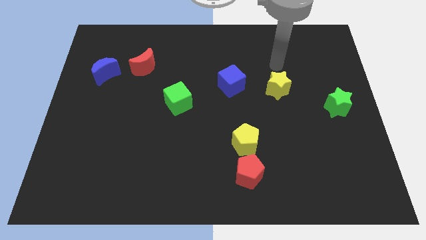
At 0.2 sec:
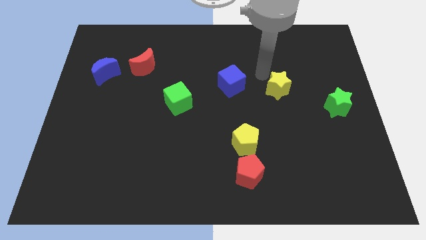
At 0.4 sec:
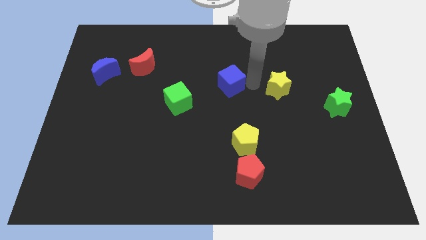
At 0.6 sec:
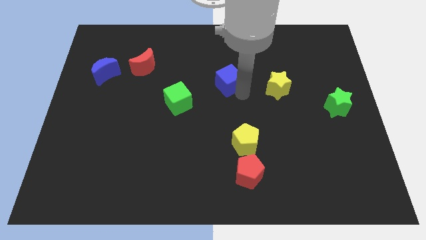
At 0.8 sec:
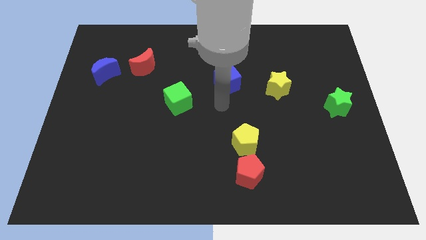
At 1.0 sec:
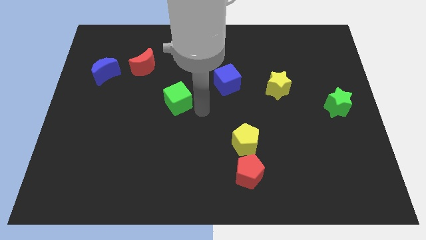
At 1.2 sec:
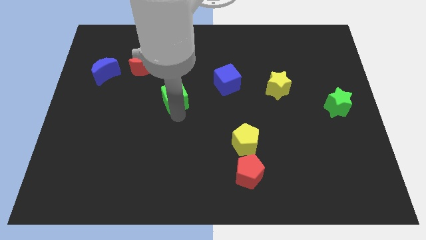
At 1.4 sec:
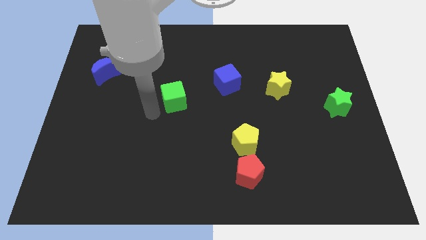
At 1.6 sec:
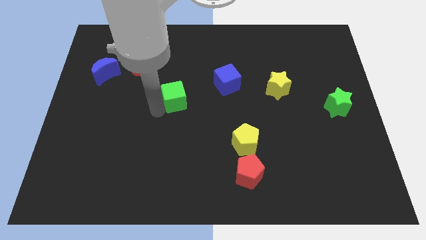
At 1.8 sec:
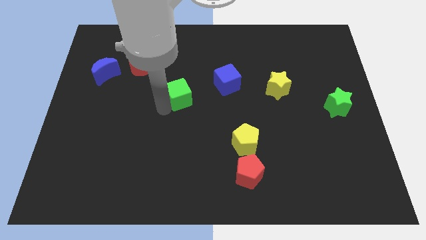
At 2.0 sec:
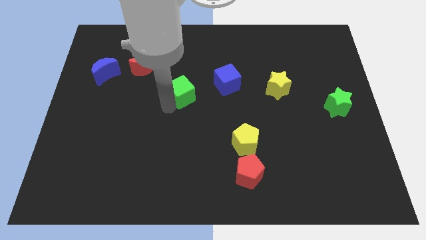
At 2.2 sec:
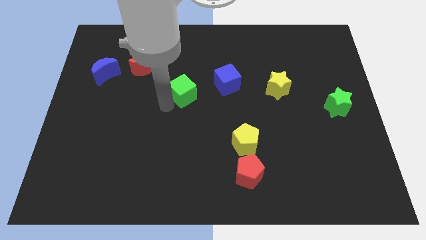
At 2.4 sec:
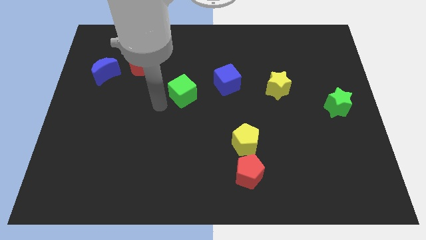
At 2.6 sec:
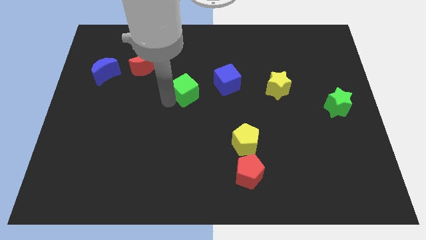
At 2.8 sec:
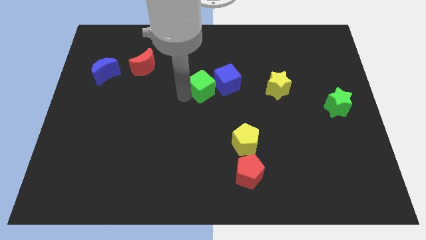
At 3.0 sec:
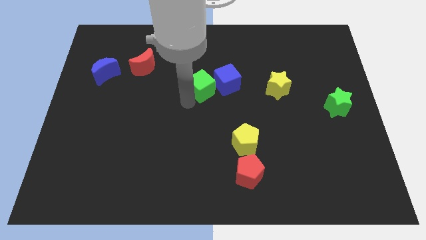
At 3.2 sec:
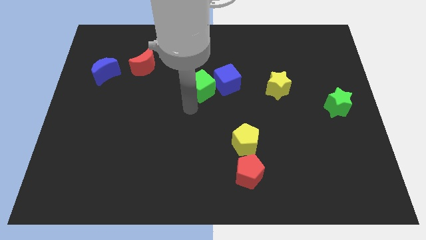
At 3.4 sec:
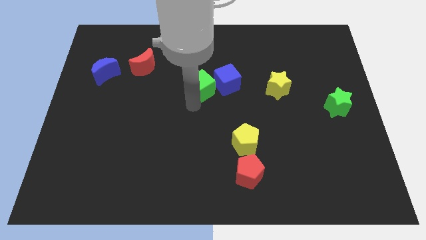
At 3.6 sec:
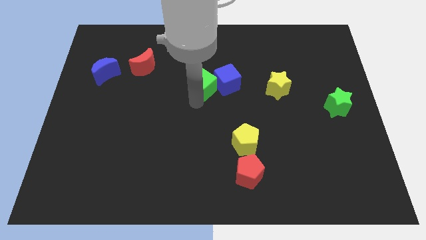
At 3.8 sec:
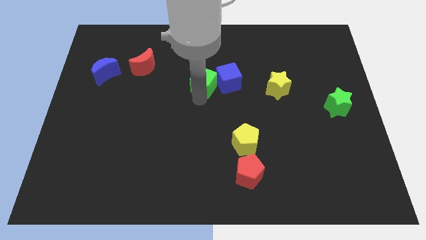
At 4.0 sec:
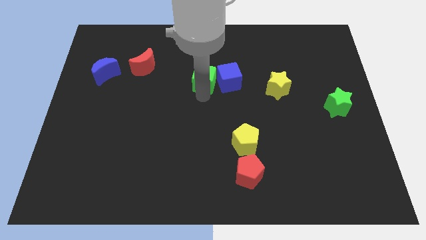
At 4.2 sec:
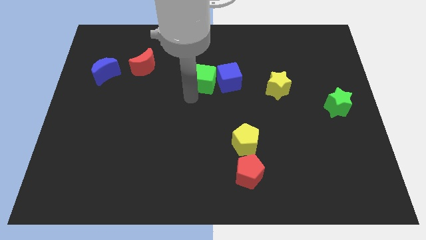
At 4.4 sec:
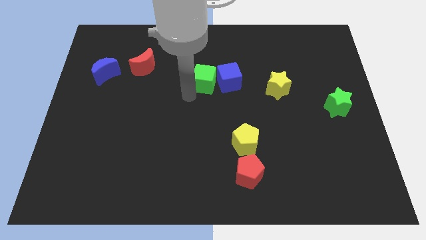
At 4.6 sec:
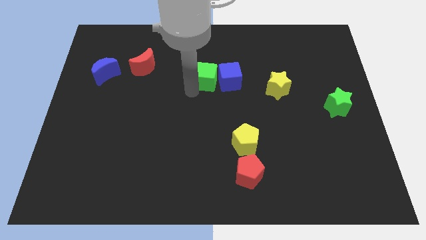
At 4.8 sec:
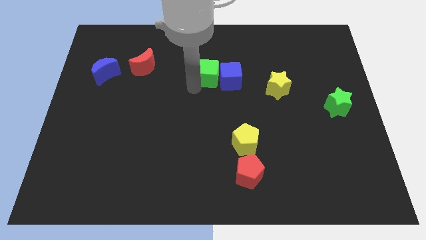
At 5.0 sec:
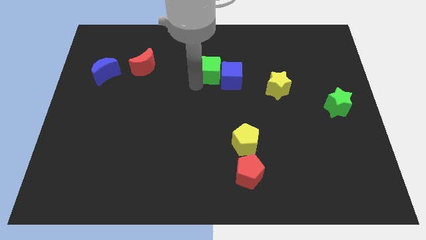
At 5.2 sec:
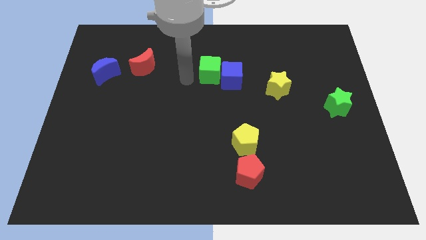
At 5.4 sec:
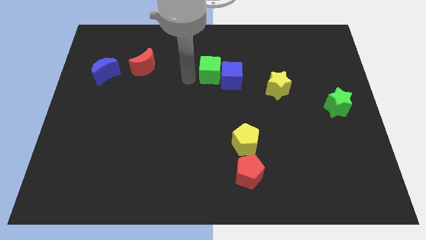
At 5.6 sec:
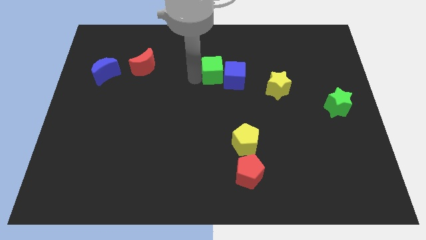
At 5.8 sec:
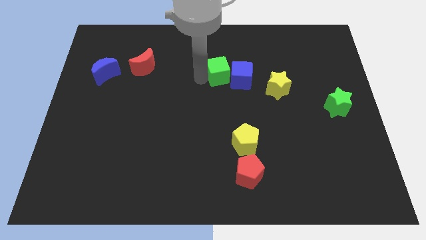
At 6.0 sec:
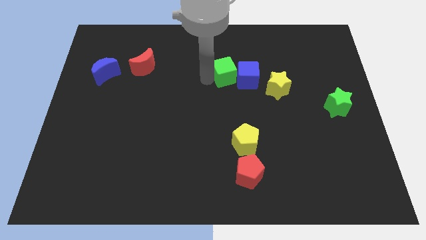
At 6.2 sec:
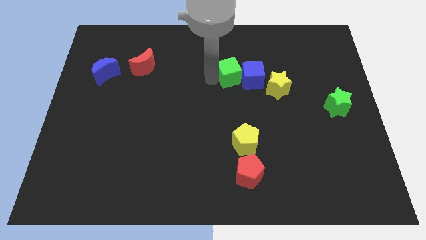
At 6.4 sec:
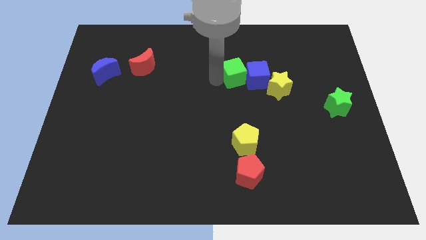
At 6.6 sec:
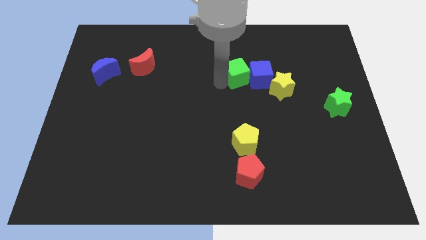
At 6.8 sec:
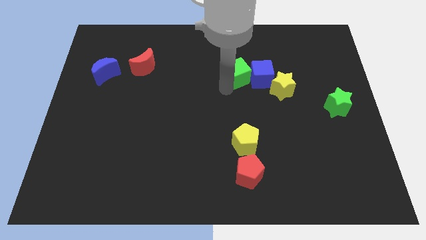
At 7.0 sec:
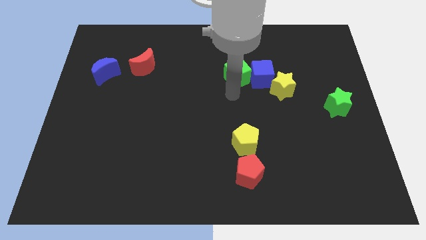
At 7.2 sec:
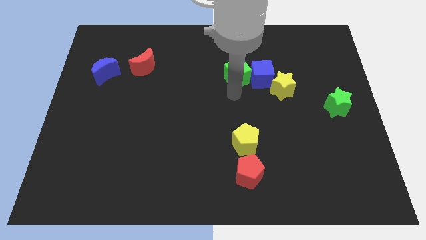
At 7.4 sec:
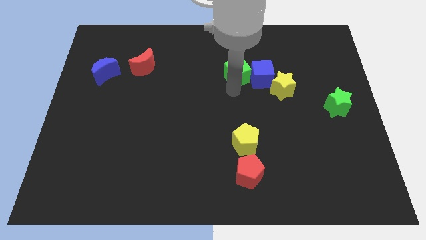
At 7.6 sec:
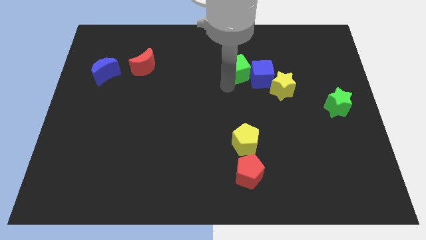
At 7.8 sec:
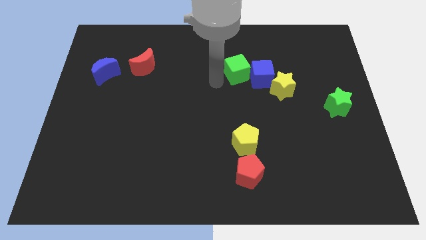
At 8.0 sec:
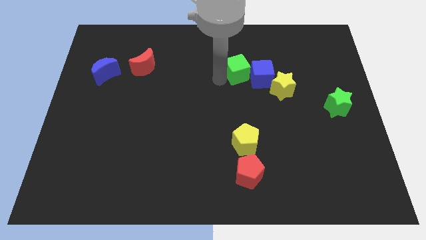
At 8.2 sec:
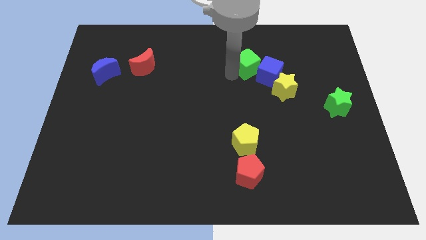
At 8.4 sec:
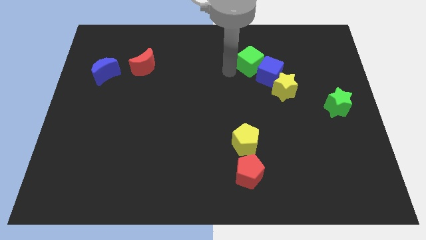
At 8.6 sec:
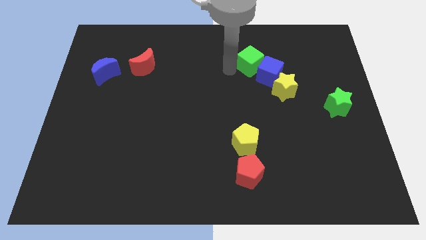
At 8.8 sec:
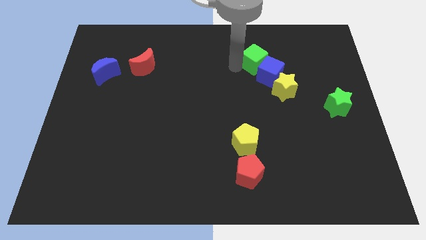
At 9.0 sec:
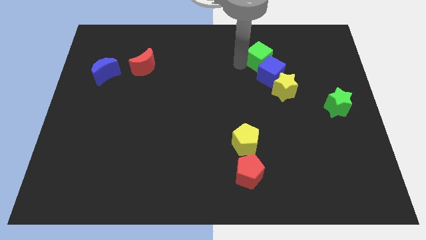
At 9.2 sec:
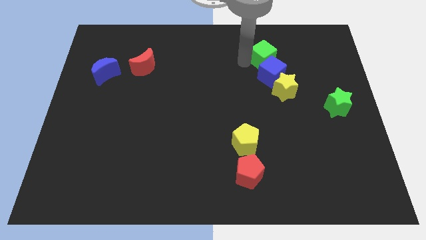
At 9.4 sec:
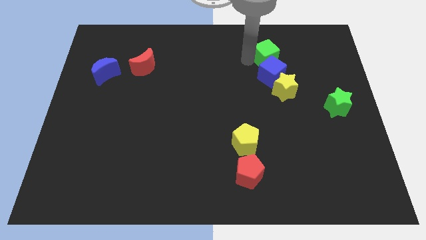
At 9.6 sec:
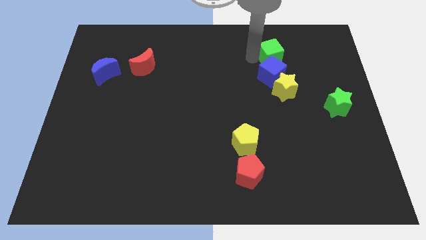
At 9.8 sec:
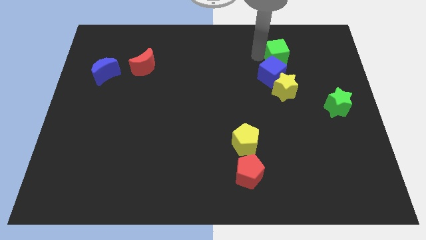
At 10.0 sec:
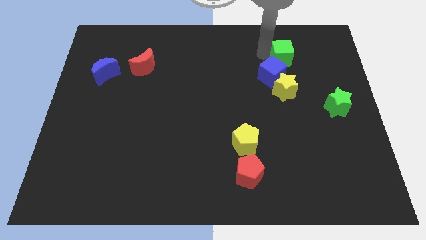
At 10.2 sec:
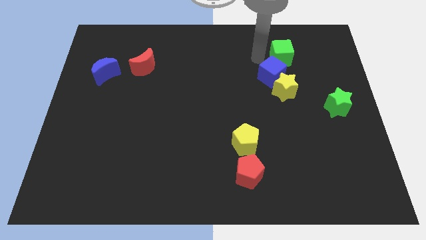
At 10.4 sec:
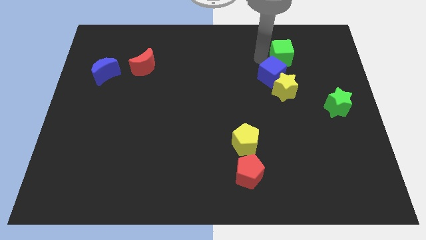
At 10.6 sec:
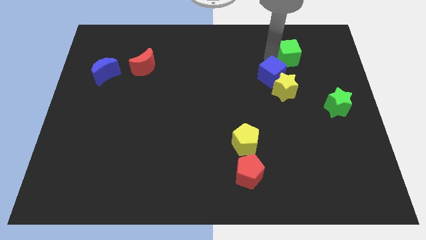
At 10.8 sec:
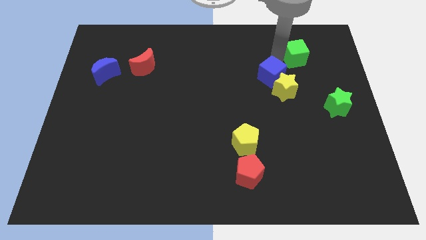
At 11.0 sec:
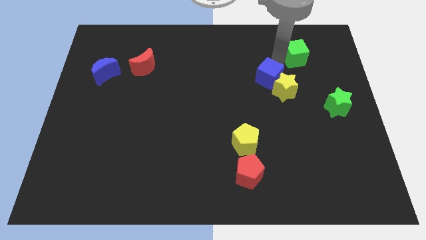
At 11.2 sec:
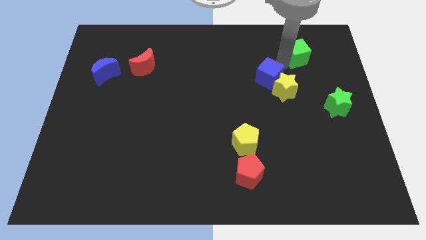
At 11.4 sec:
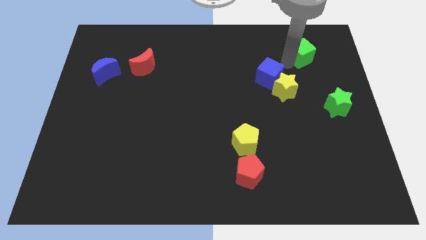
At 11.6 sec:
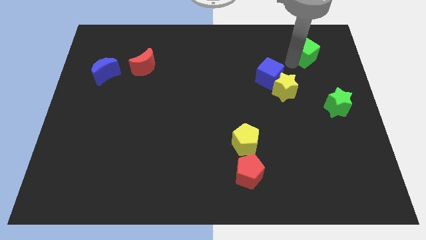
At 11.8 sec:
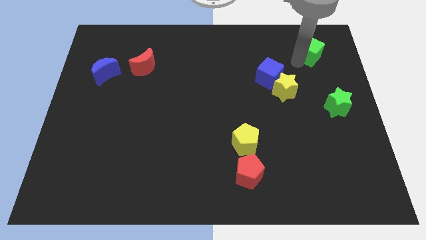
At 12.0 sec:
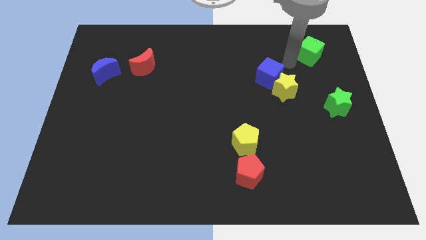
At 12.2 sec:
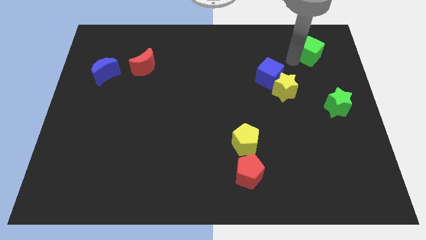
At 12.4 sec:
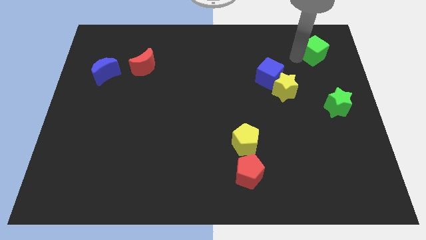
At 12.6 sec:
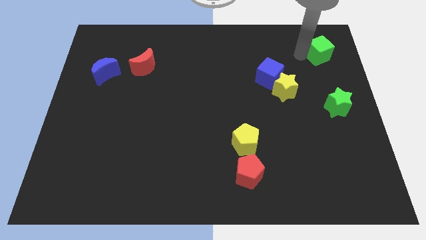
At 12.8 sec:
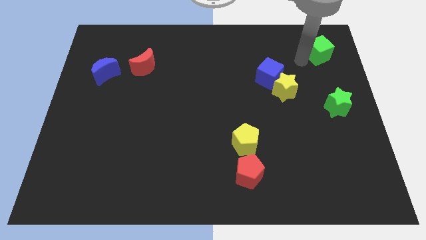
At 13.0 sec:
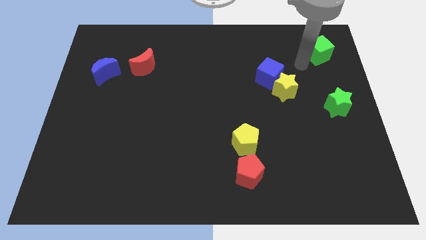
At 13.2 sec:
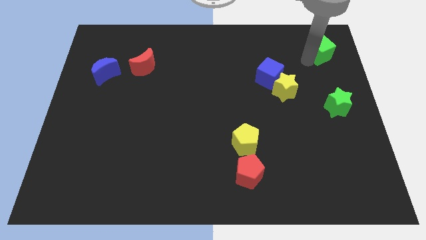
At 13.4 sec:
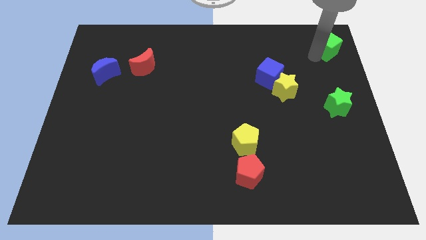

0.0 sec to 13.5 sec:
slide the green cube to the top right corner

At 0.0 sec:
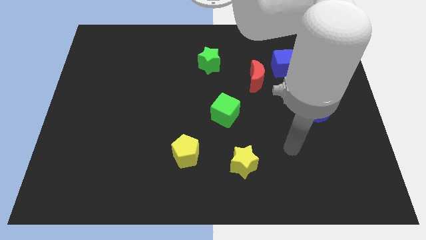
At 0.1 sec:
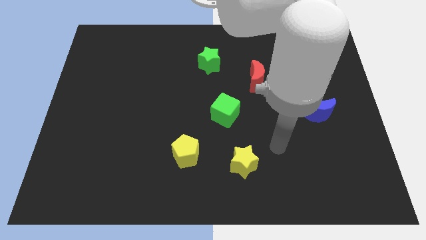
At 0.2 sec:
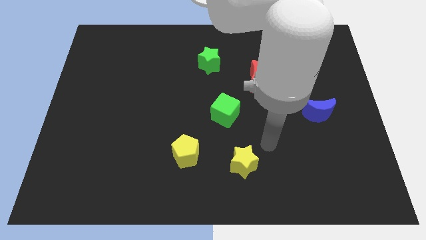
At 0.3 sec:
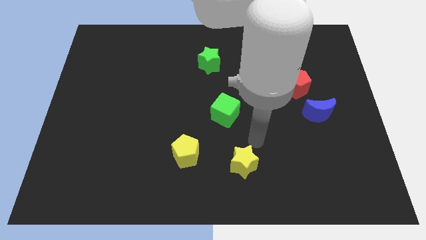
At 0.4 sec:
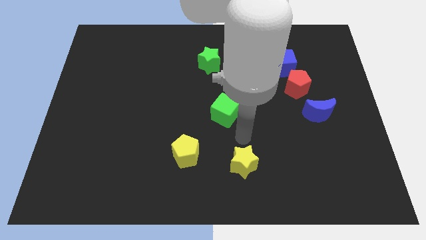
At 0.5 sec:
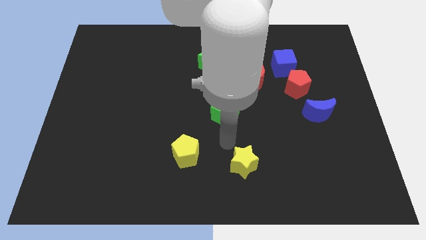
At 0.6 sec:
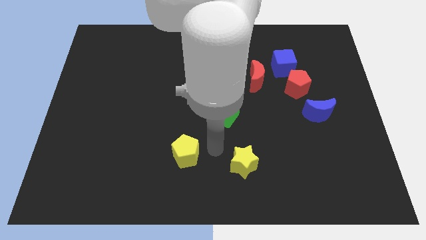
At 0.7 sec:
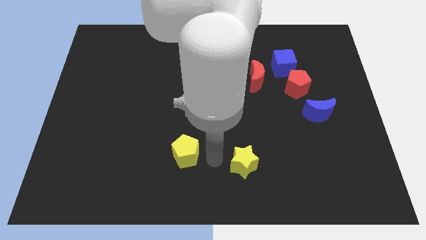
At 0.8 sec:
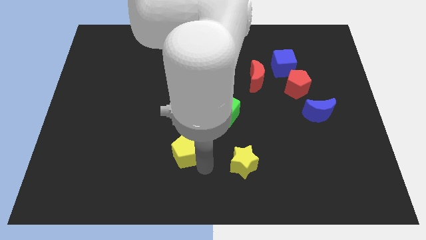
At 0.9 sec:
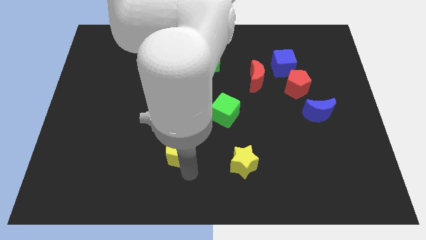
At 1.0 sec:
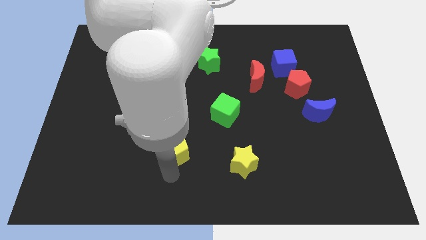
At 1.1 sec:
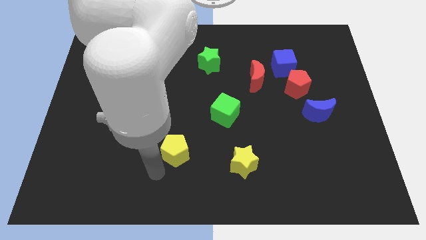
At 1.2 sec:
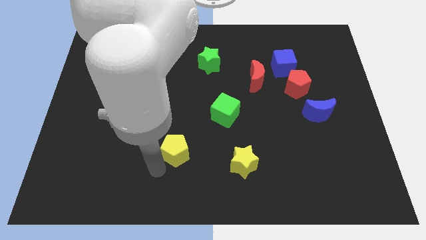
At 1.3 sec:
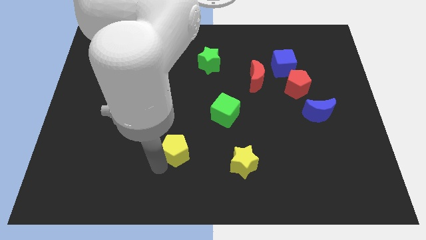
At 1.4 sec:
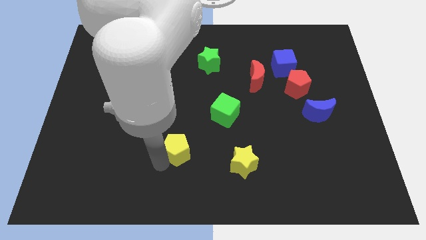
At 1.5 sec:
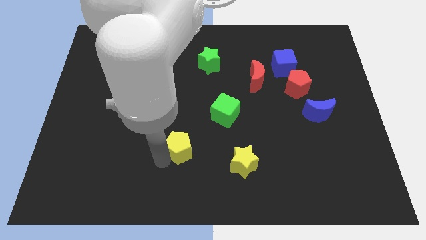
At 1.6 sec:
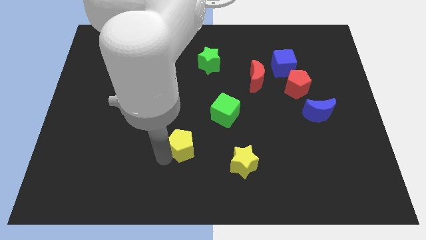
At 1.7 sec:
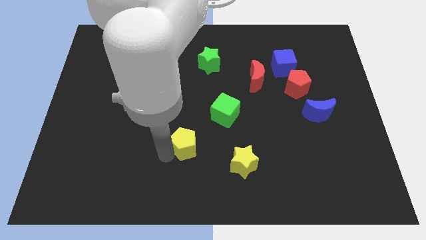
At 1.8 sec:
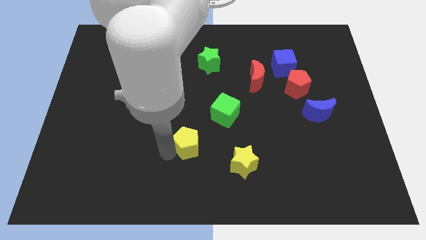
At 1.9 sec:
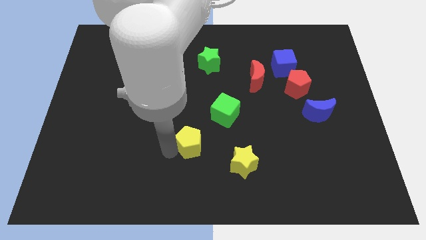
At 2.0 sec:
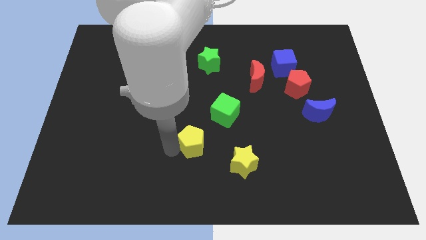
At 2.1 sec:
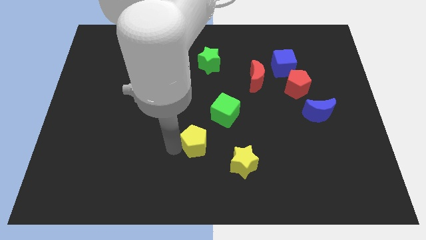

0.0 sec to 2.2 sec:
slide the yellow pentagon to the middle
